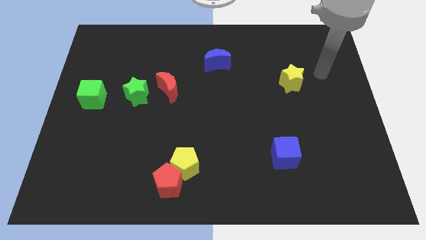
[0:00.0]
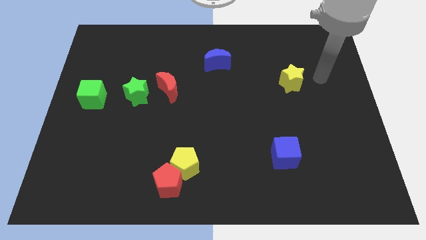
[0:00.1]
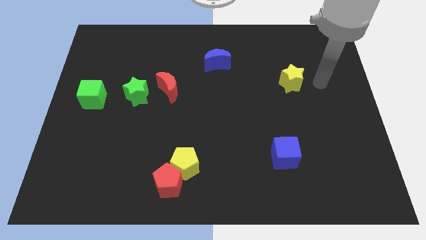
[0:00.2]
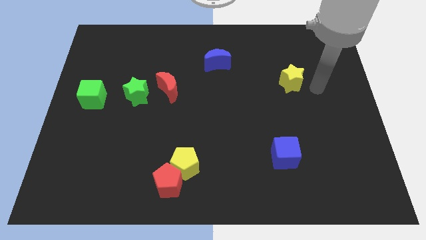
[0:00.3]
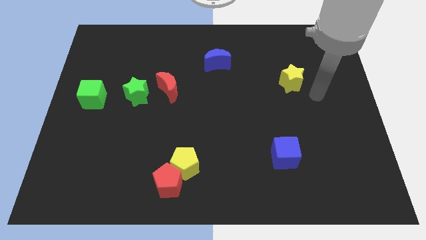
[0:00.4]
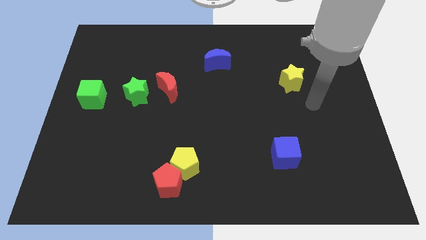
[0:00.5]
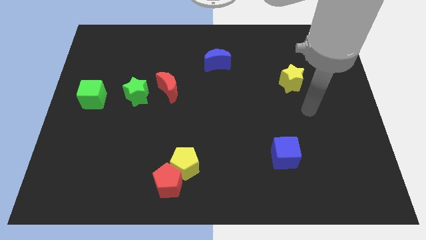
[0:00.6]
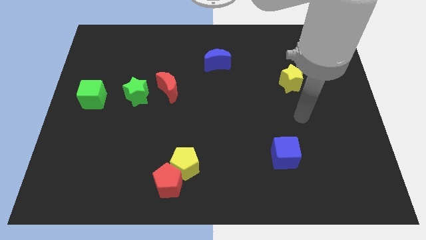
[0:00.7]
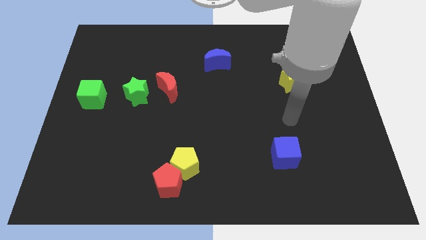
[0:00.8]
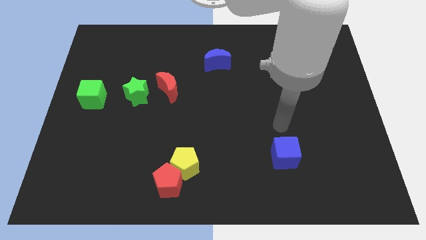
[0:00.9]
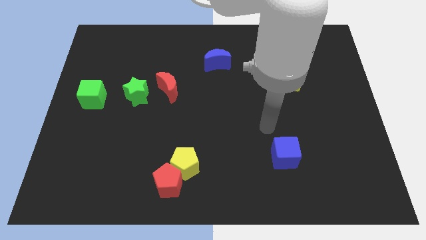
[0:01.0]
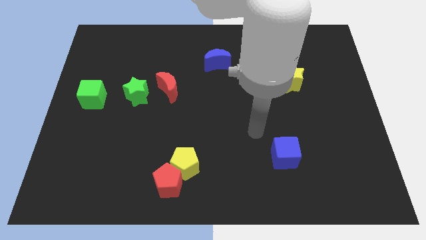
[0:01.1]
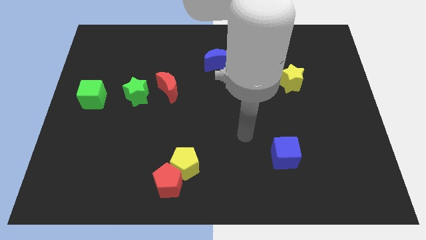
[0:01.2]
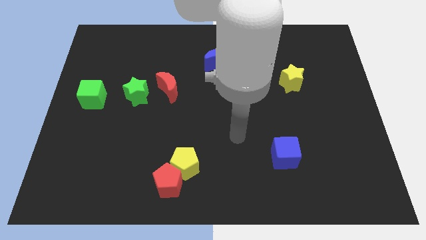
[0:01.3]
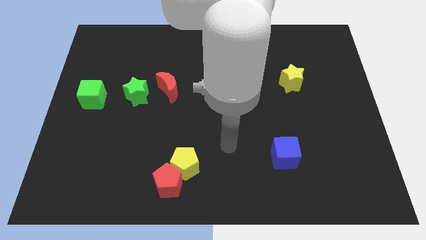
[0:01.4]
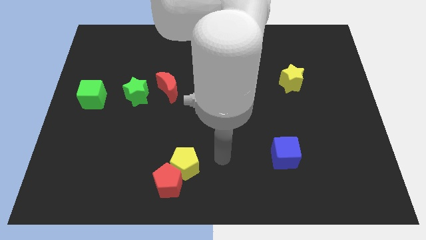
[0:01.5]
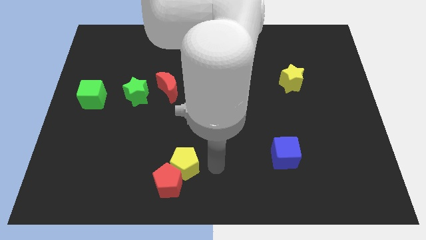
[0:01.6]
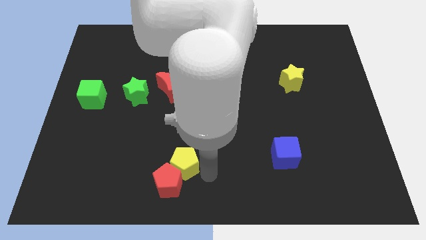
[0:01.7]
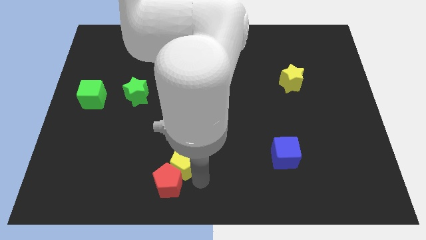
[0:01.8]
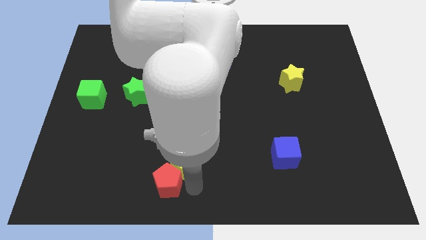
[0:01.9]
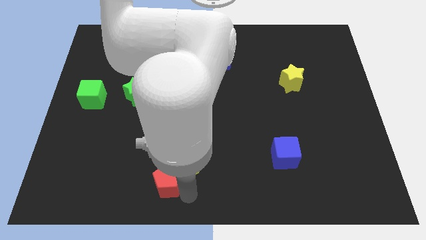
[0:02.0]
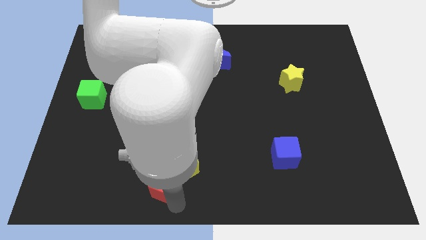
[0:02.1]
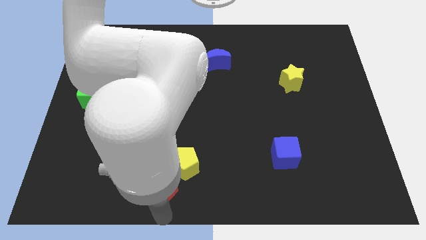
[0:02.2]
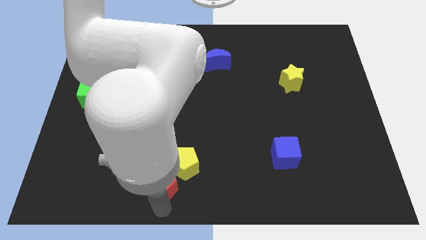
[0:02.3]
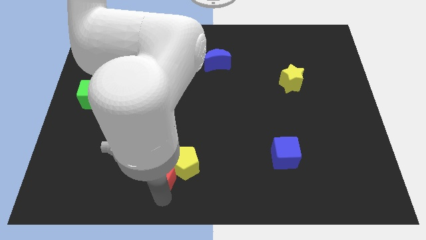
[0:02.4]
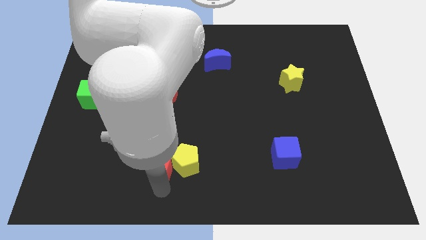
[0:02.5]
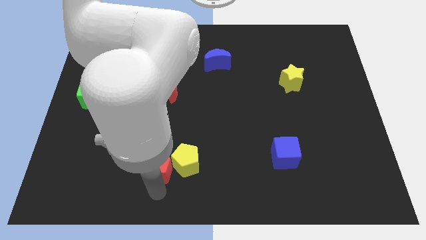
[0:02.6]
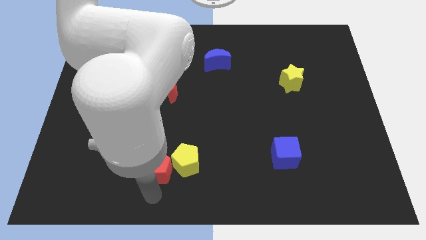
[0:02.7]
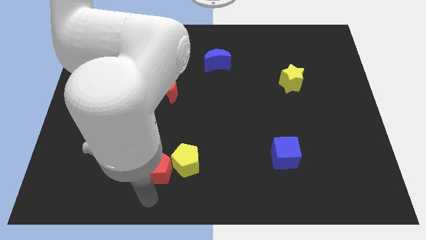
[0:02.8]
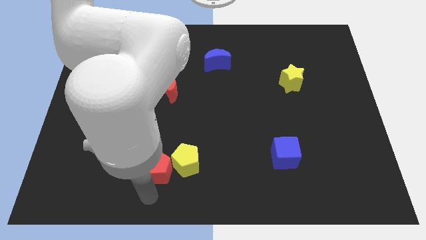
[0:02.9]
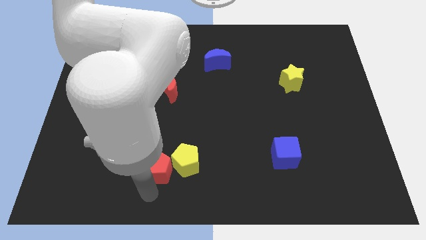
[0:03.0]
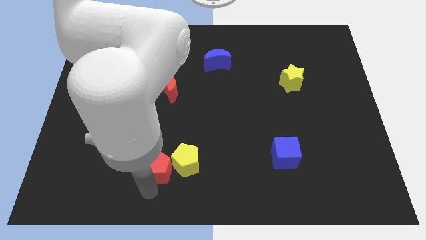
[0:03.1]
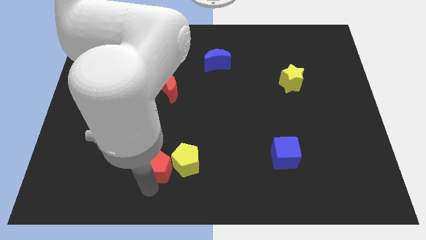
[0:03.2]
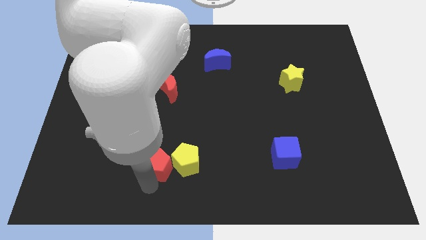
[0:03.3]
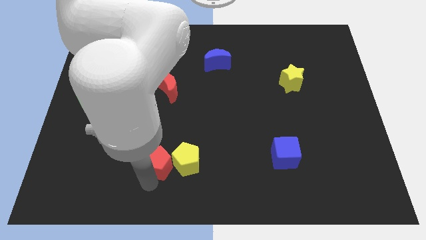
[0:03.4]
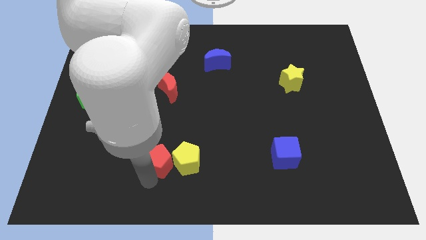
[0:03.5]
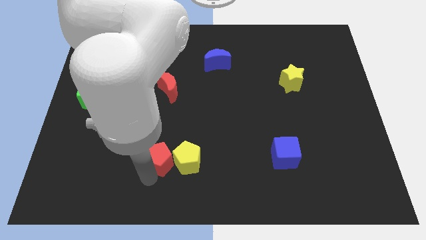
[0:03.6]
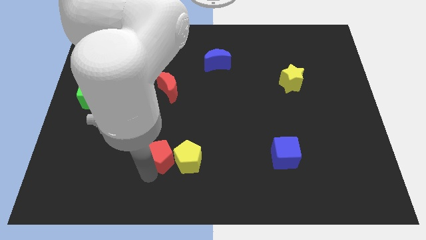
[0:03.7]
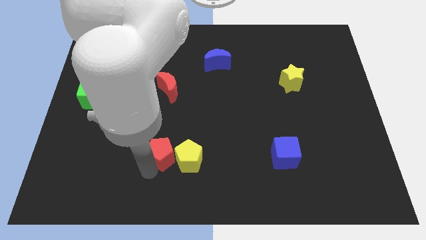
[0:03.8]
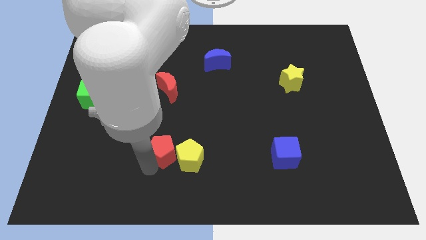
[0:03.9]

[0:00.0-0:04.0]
slightly move the red pentagon up

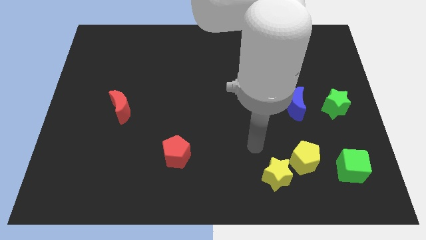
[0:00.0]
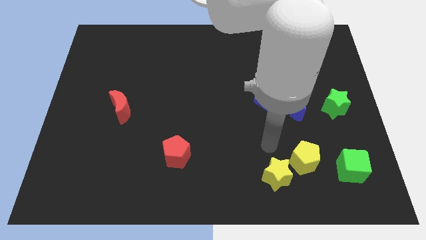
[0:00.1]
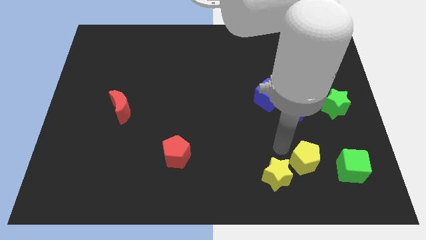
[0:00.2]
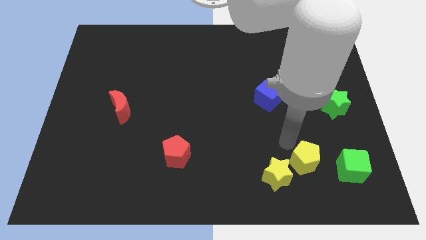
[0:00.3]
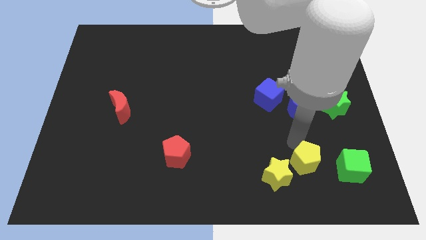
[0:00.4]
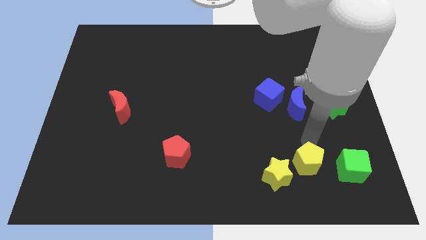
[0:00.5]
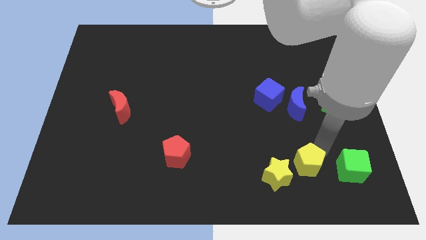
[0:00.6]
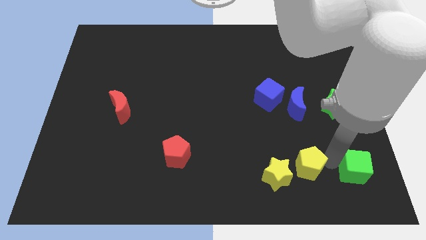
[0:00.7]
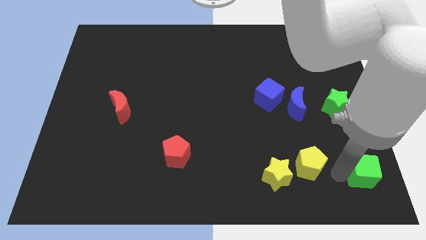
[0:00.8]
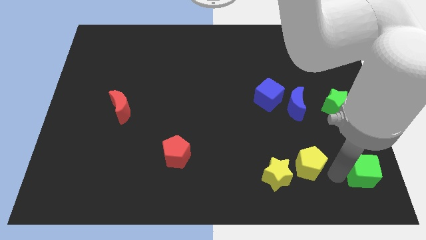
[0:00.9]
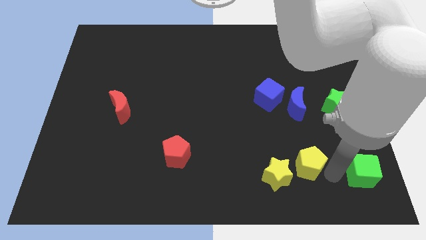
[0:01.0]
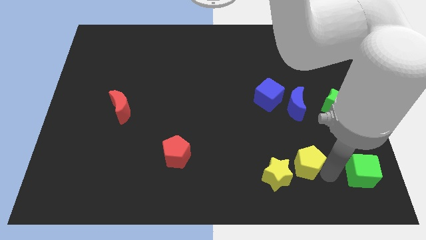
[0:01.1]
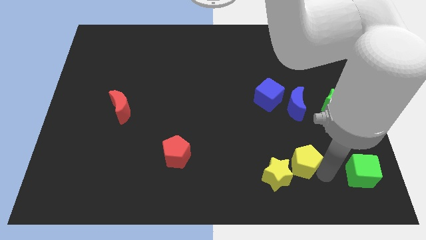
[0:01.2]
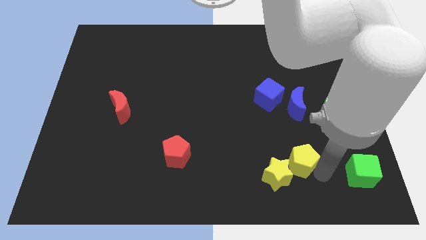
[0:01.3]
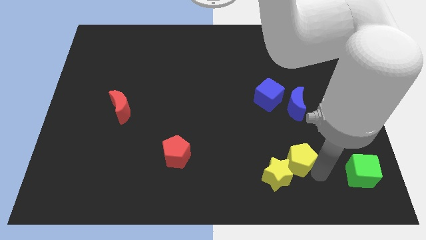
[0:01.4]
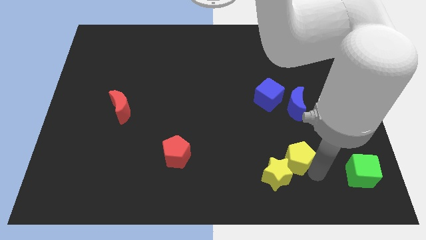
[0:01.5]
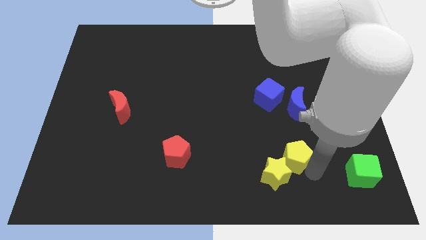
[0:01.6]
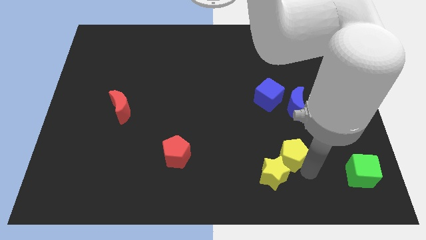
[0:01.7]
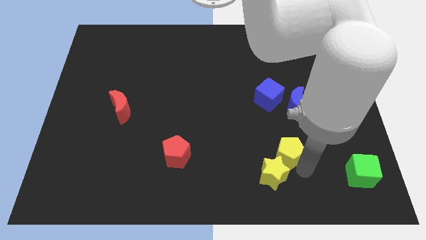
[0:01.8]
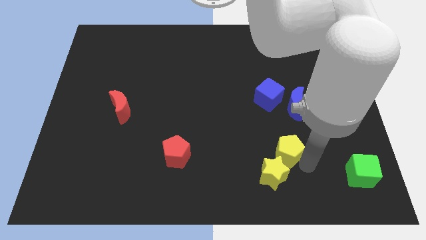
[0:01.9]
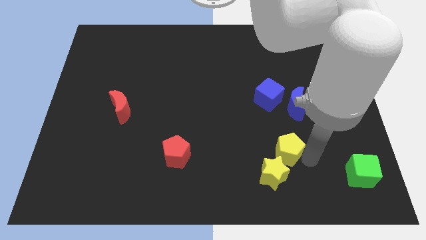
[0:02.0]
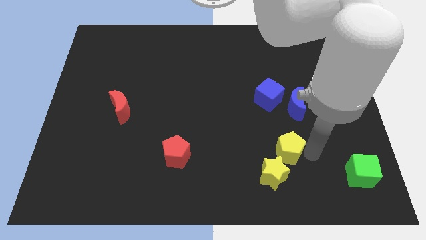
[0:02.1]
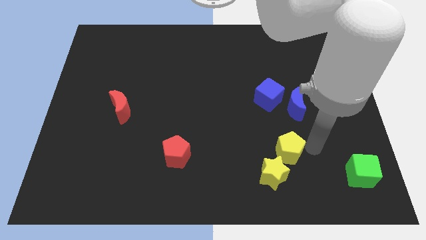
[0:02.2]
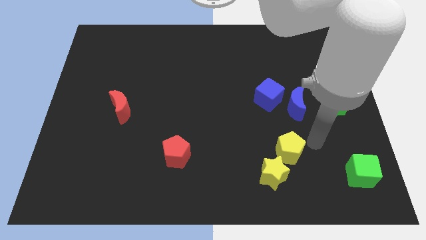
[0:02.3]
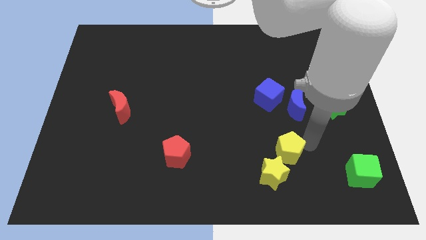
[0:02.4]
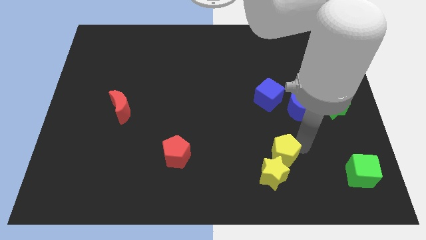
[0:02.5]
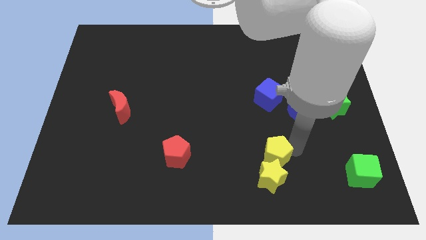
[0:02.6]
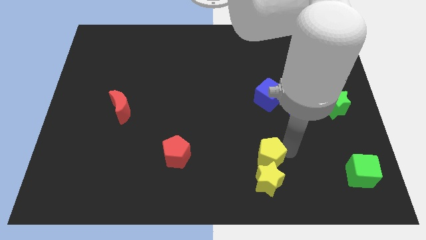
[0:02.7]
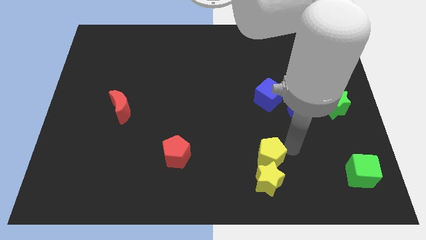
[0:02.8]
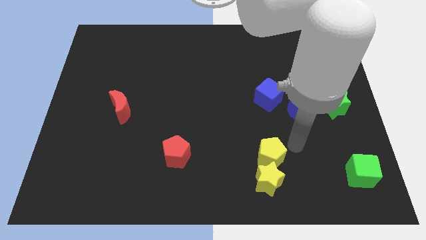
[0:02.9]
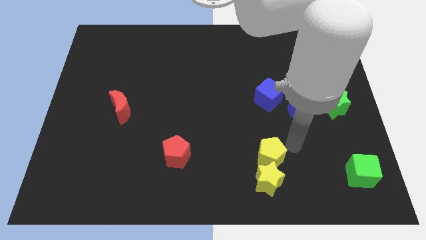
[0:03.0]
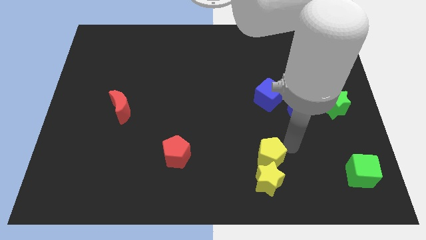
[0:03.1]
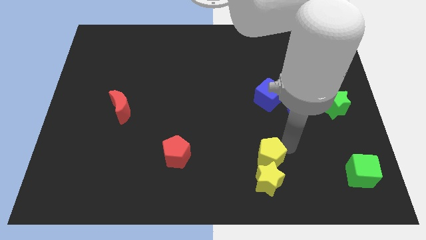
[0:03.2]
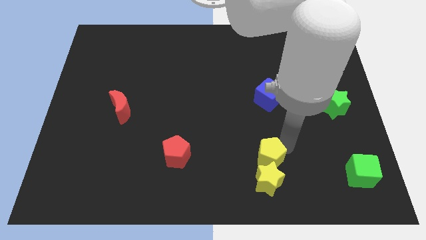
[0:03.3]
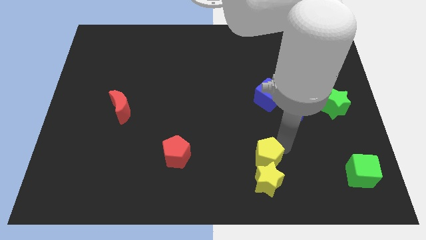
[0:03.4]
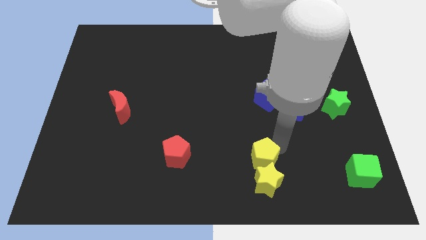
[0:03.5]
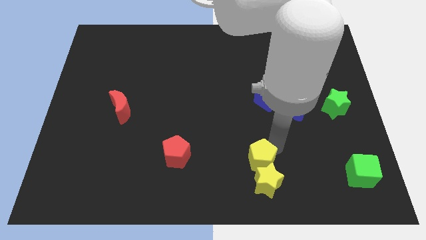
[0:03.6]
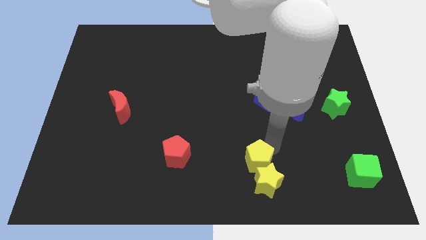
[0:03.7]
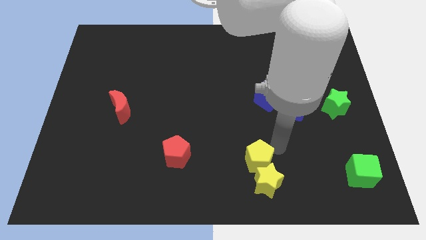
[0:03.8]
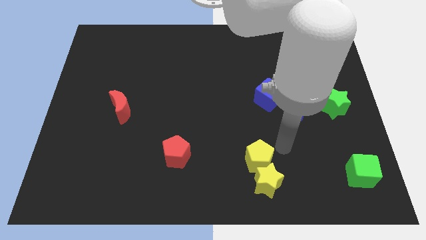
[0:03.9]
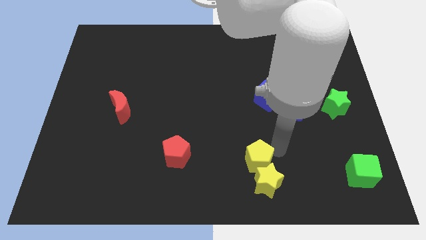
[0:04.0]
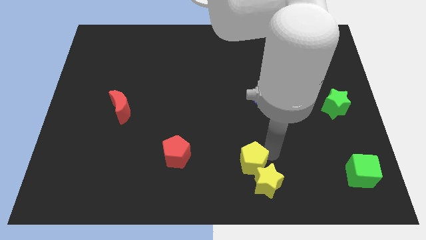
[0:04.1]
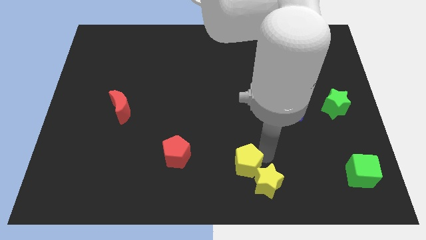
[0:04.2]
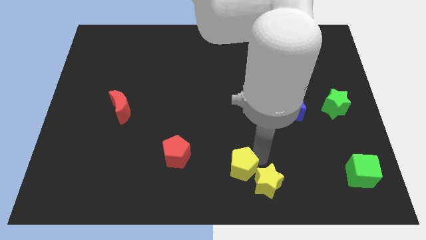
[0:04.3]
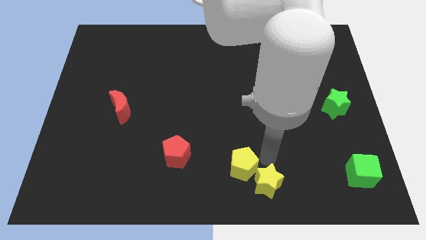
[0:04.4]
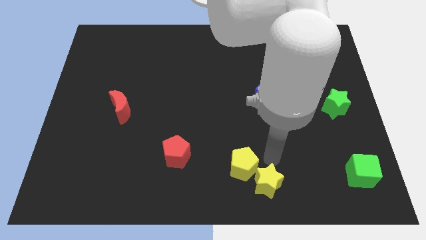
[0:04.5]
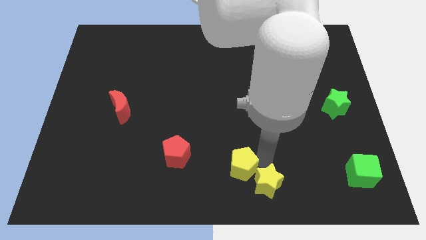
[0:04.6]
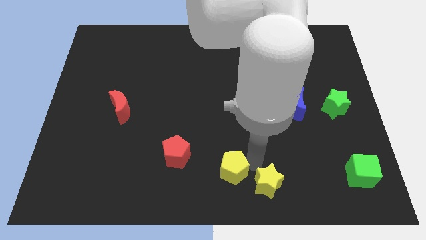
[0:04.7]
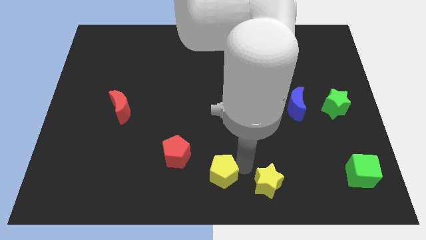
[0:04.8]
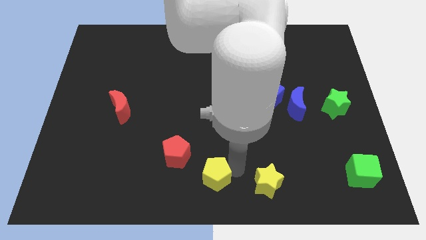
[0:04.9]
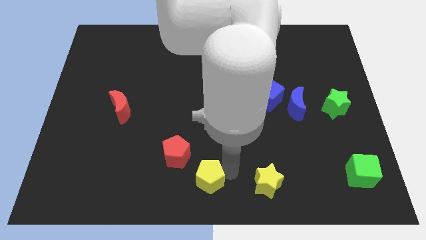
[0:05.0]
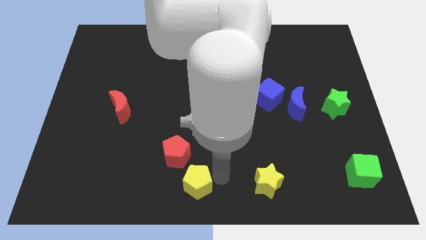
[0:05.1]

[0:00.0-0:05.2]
slide the yellow pentagon left
